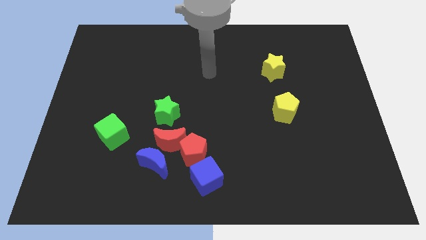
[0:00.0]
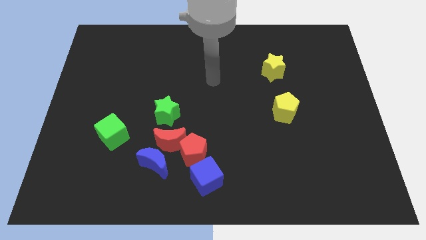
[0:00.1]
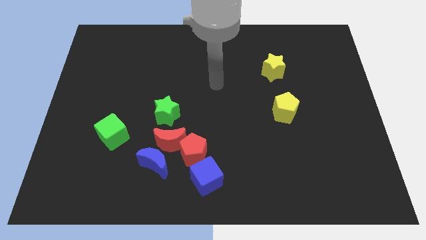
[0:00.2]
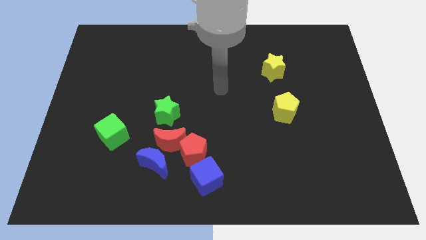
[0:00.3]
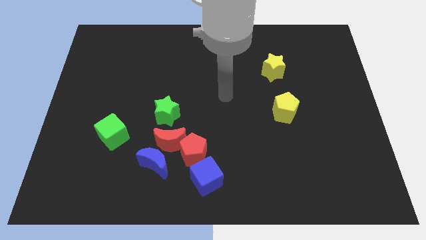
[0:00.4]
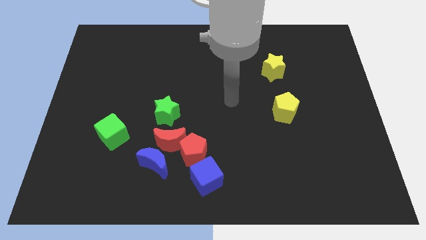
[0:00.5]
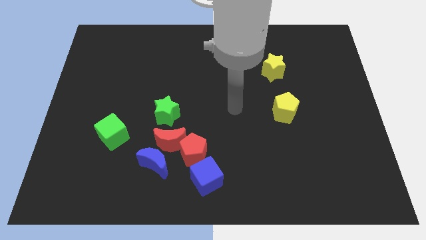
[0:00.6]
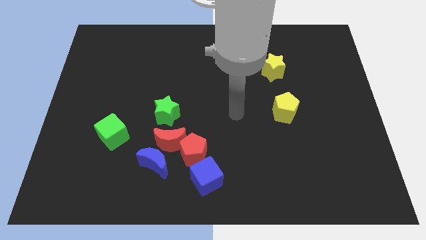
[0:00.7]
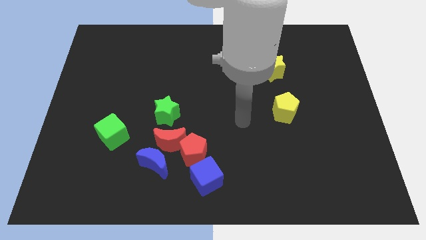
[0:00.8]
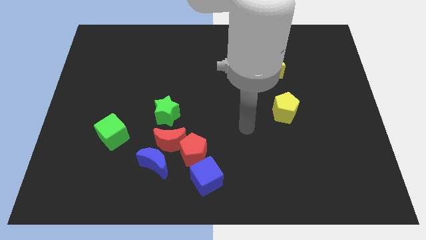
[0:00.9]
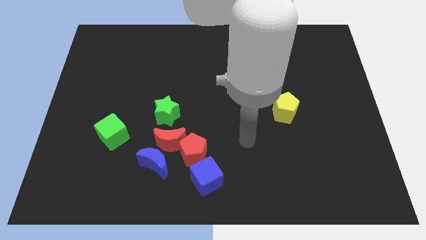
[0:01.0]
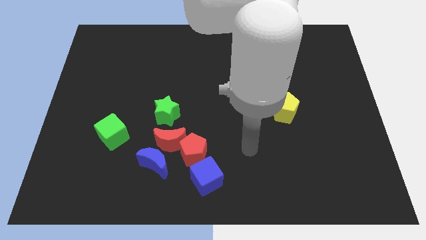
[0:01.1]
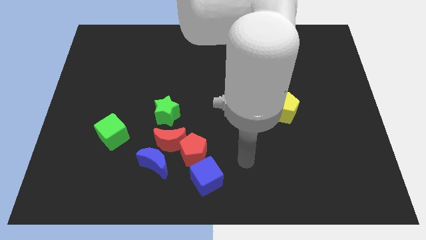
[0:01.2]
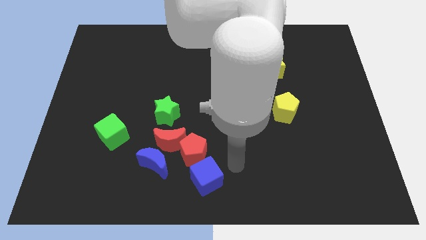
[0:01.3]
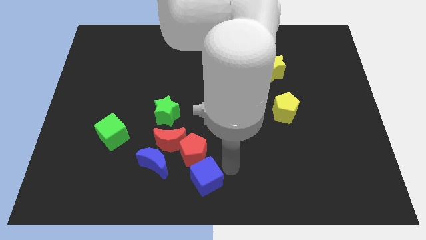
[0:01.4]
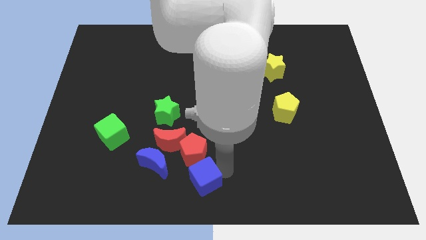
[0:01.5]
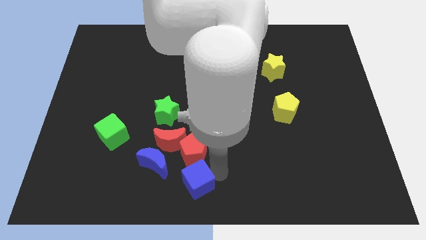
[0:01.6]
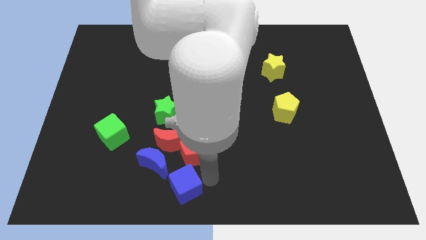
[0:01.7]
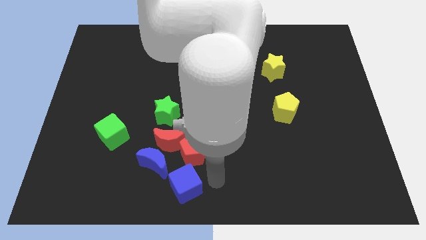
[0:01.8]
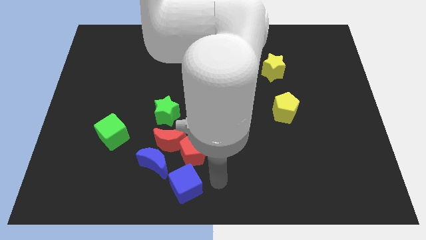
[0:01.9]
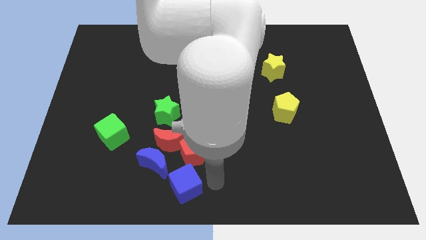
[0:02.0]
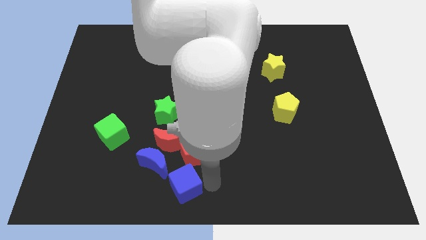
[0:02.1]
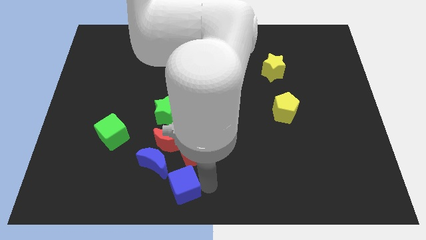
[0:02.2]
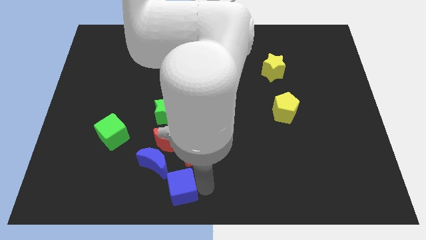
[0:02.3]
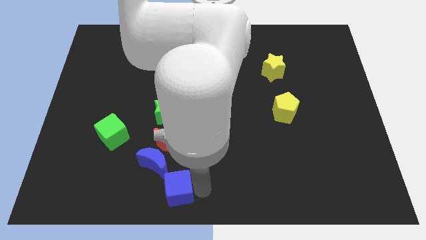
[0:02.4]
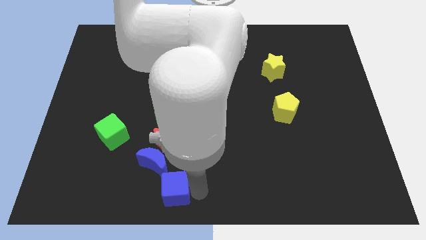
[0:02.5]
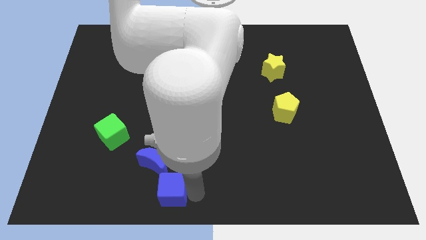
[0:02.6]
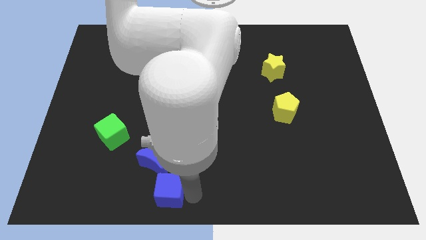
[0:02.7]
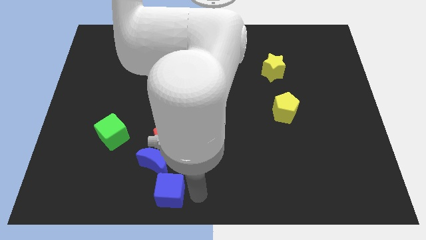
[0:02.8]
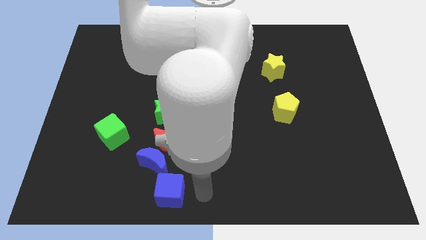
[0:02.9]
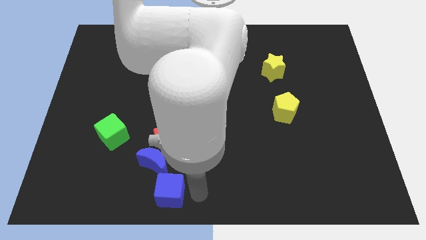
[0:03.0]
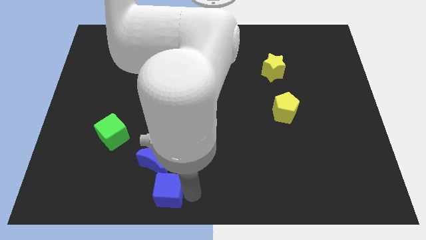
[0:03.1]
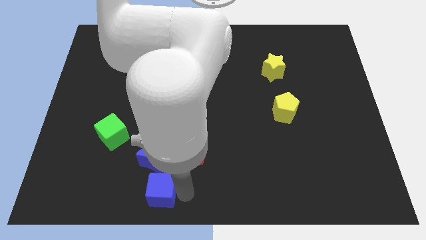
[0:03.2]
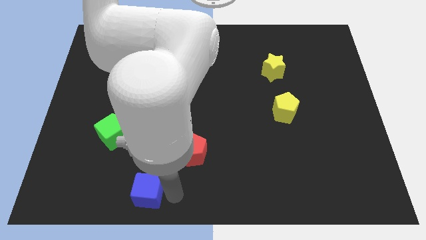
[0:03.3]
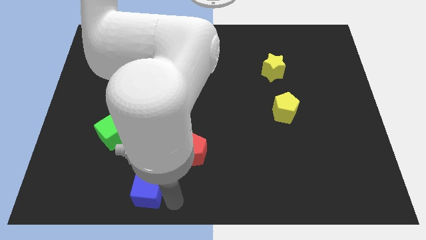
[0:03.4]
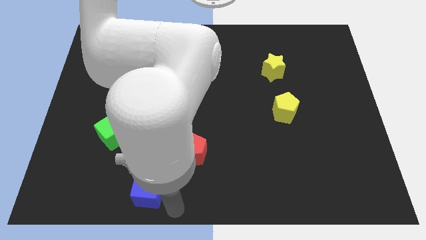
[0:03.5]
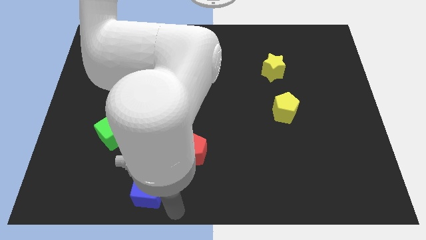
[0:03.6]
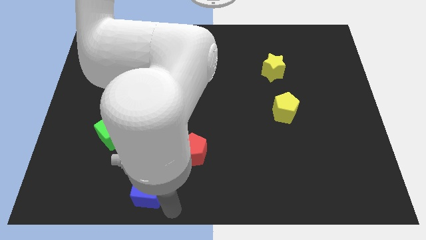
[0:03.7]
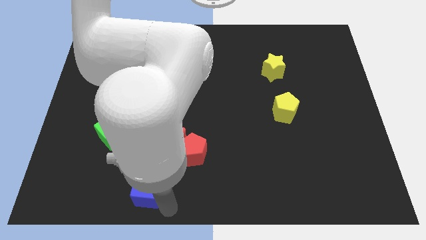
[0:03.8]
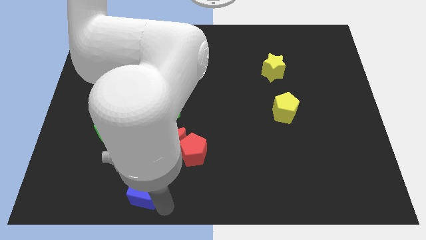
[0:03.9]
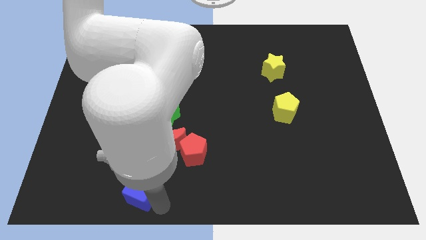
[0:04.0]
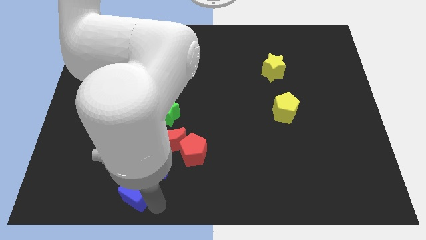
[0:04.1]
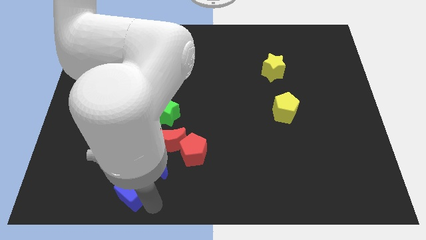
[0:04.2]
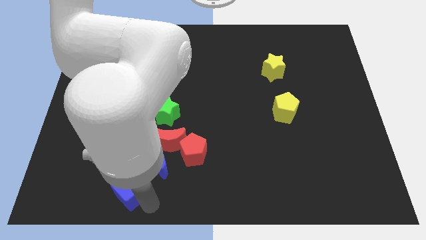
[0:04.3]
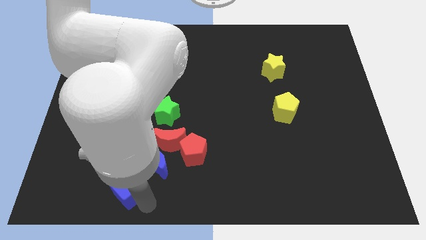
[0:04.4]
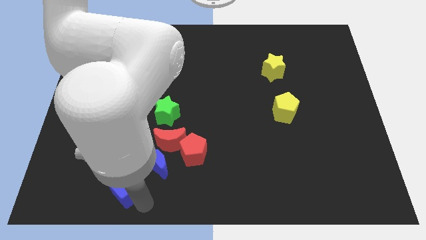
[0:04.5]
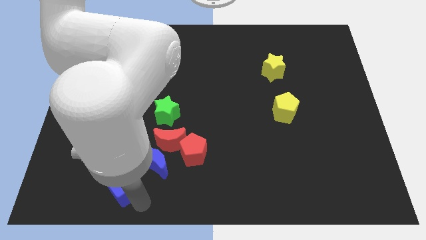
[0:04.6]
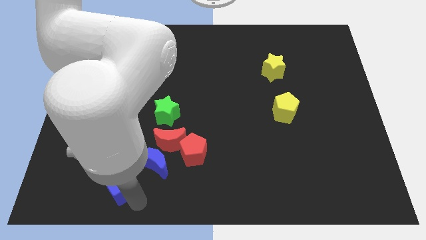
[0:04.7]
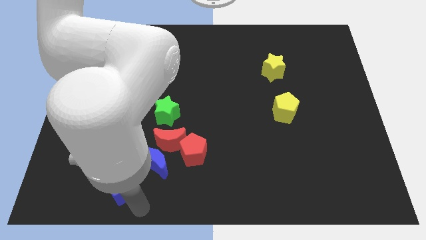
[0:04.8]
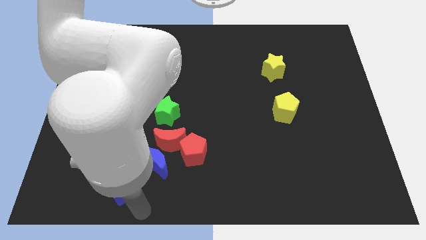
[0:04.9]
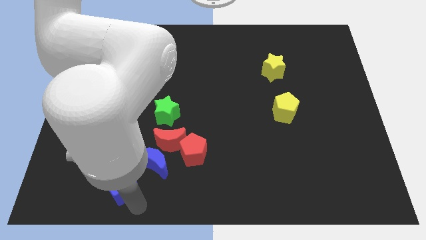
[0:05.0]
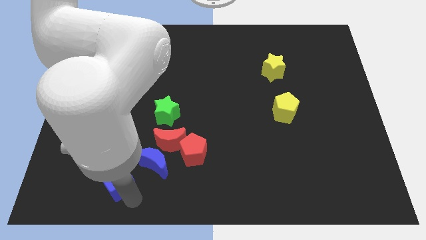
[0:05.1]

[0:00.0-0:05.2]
push the blue cube to the left of the blue moon

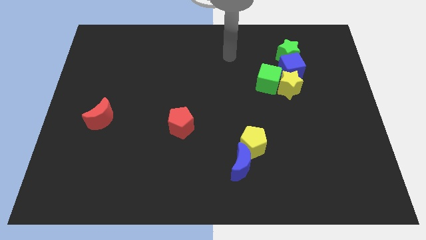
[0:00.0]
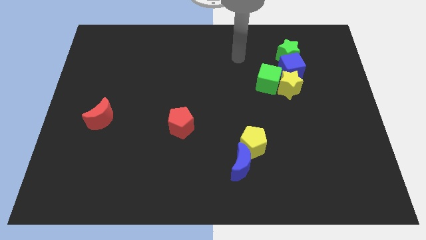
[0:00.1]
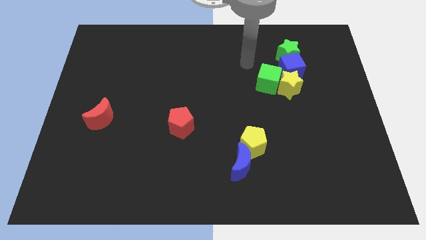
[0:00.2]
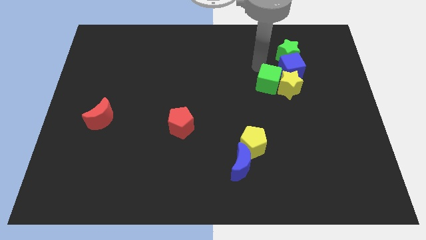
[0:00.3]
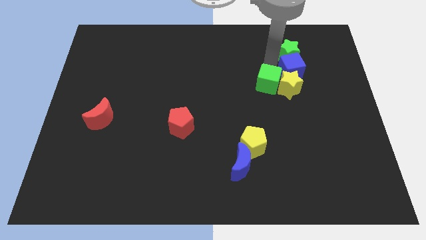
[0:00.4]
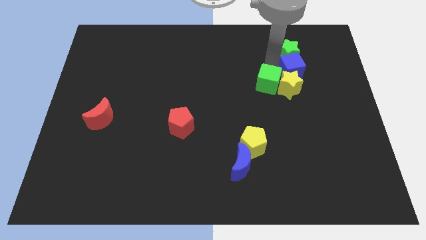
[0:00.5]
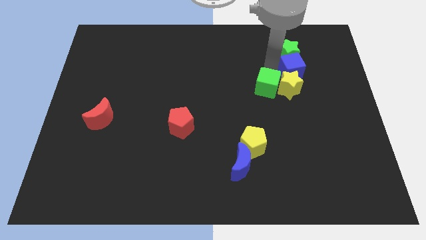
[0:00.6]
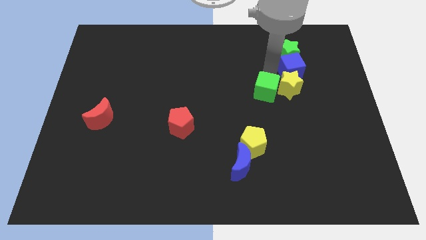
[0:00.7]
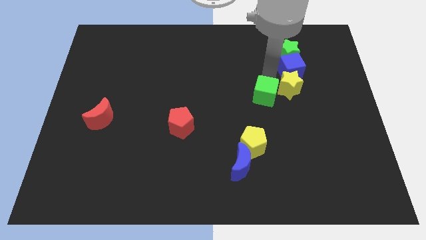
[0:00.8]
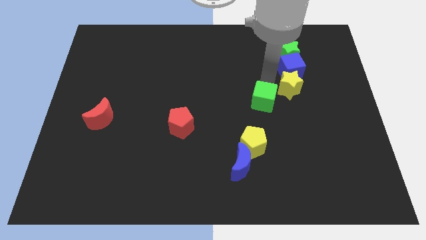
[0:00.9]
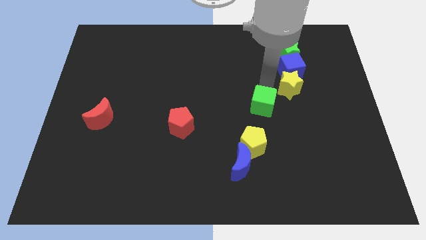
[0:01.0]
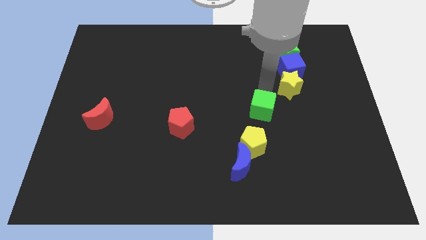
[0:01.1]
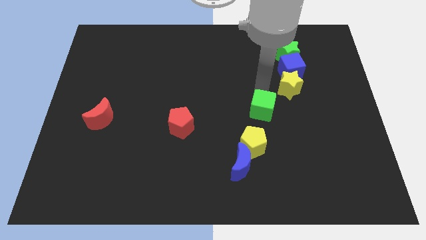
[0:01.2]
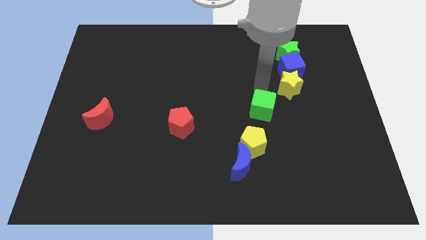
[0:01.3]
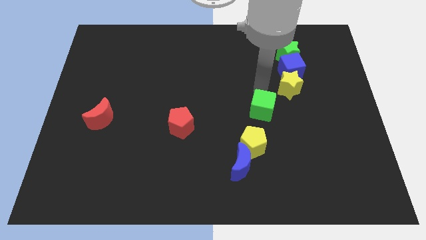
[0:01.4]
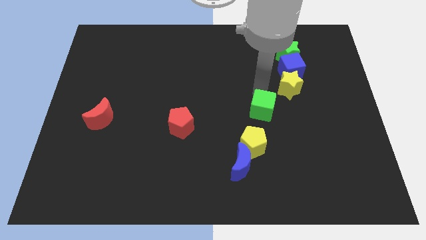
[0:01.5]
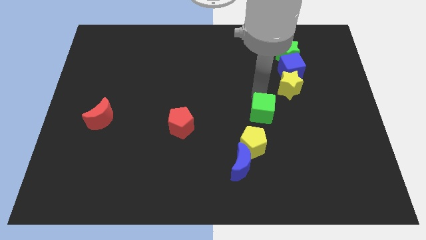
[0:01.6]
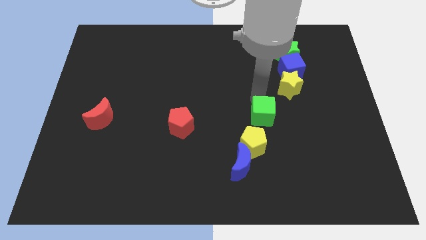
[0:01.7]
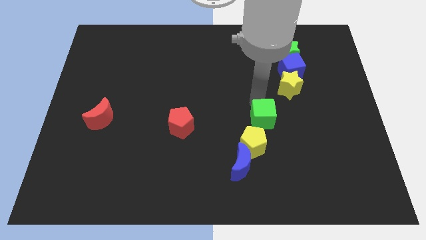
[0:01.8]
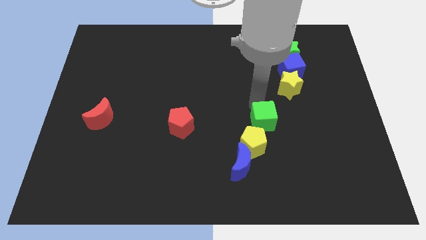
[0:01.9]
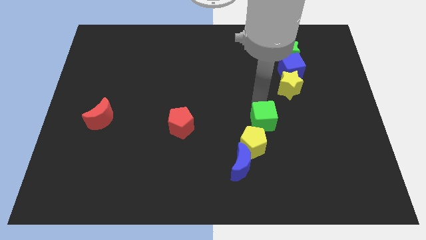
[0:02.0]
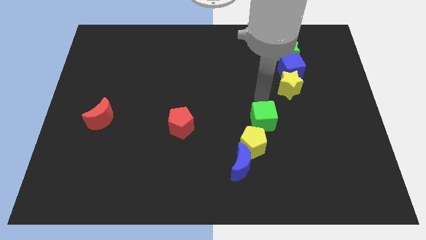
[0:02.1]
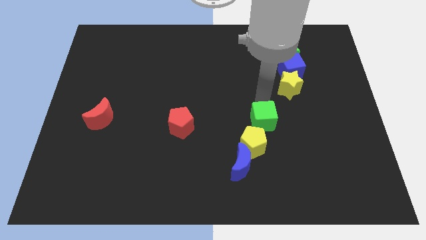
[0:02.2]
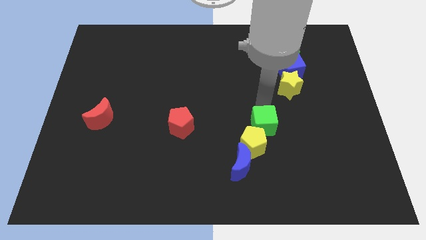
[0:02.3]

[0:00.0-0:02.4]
slide the green cube to the top right of the blue moon

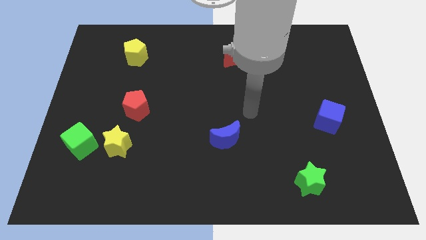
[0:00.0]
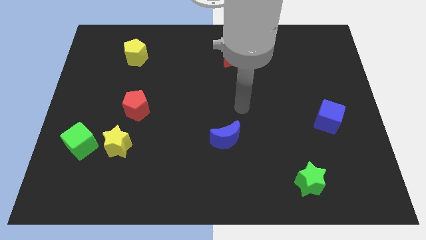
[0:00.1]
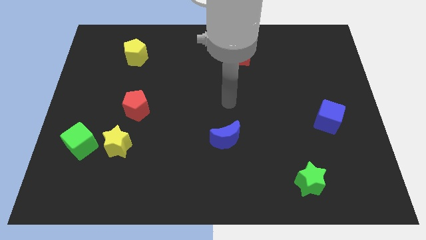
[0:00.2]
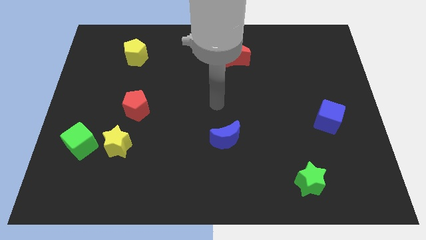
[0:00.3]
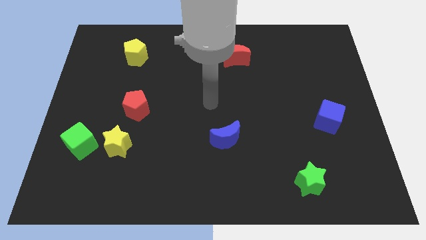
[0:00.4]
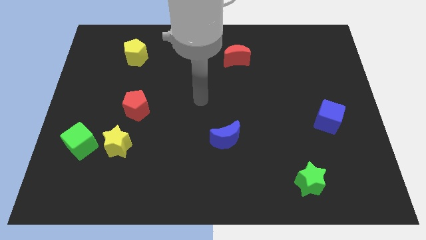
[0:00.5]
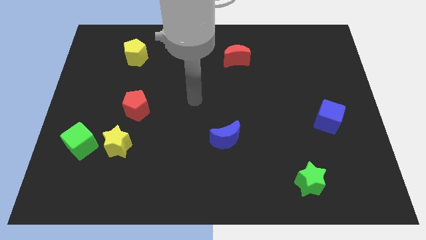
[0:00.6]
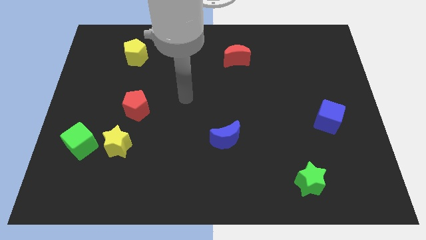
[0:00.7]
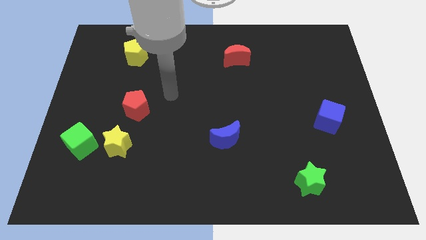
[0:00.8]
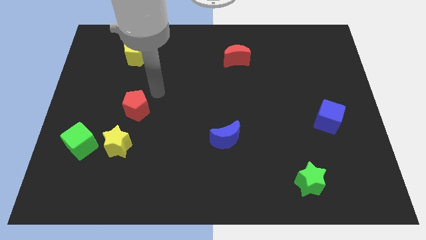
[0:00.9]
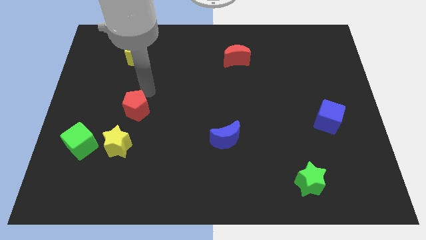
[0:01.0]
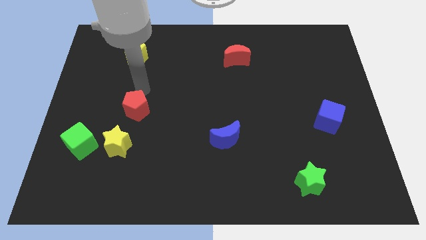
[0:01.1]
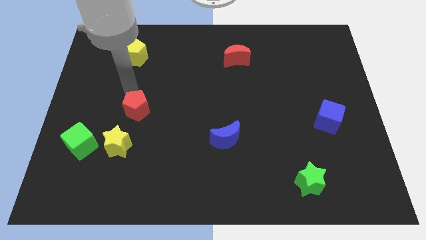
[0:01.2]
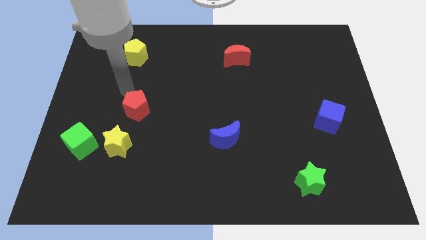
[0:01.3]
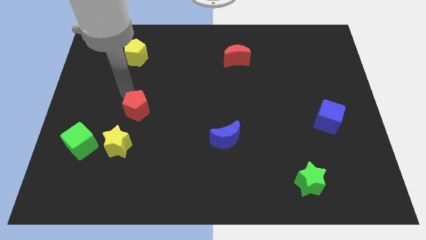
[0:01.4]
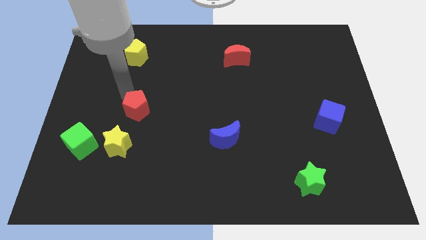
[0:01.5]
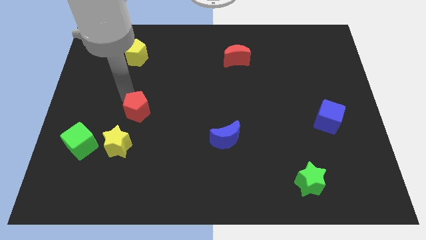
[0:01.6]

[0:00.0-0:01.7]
slide the red pentagon to the top right side of the yellow star
